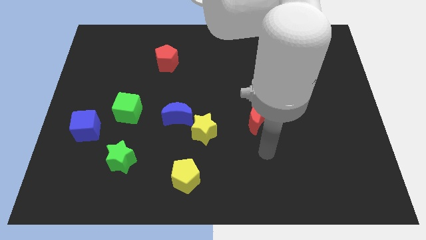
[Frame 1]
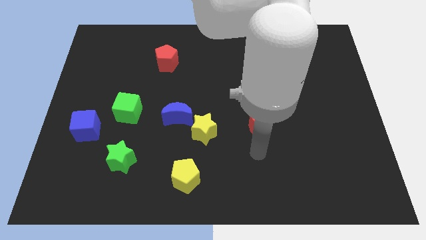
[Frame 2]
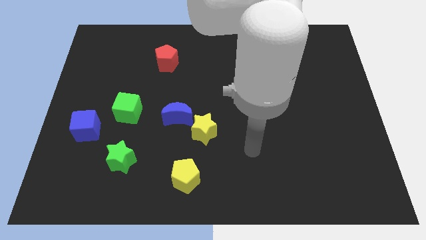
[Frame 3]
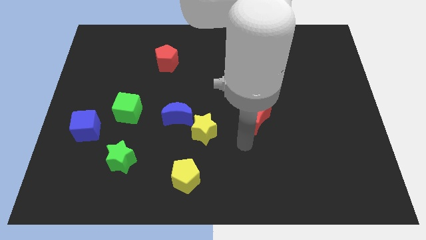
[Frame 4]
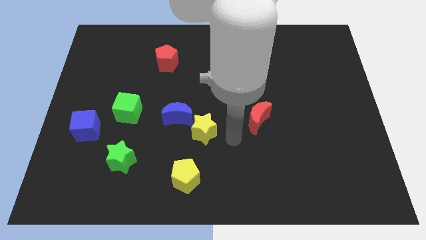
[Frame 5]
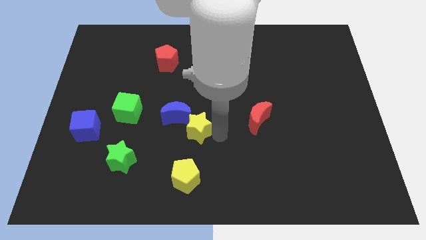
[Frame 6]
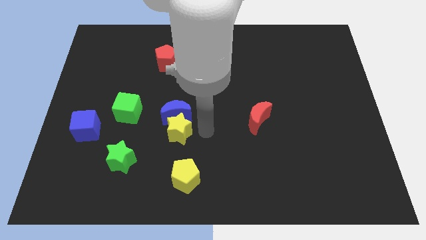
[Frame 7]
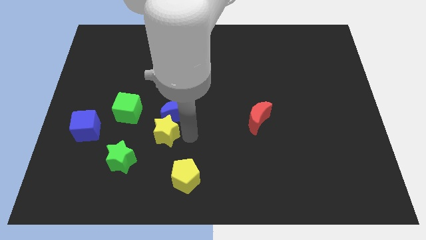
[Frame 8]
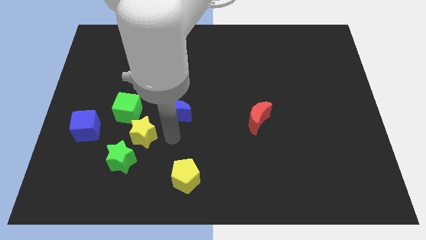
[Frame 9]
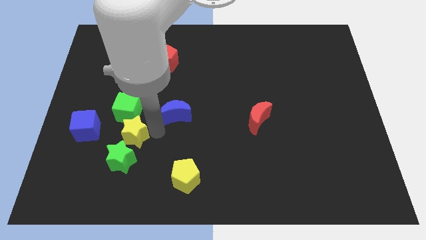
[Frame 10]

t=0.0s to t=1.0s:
move the blue moon away from the yellow star

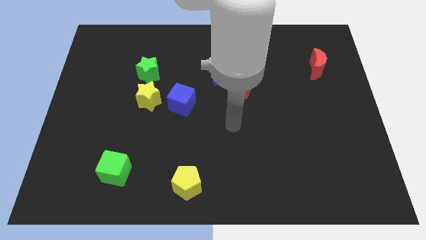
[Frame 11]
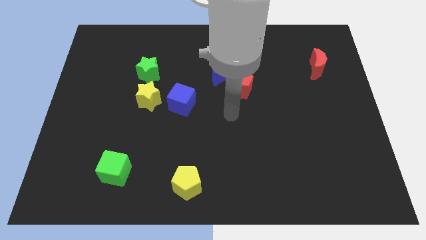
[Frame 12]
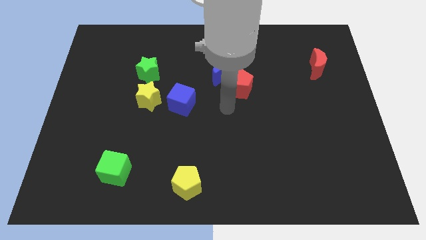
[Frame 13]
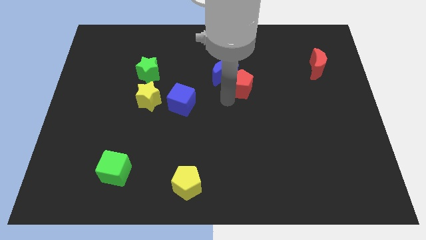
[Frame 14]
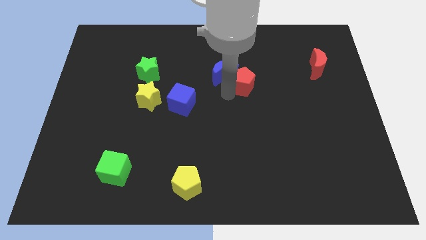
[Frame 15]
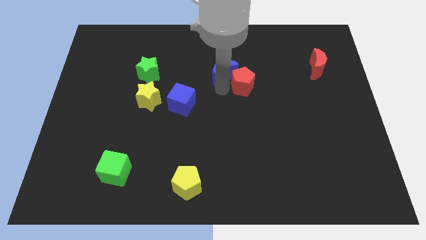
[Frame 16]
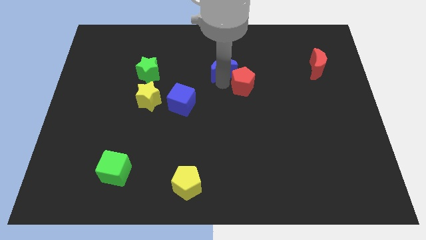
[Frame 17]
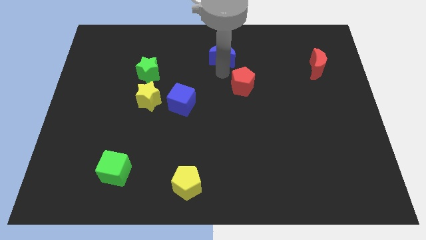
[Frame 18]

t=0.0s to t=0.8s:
move the red pentagon away from the blue moon

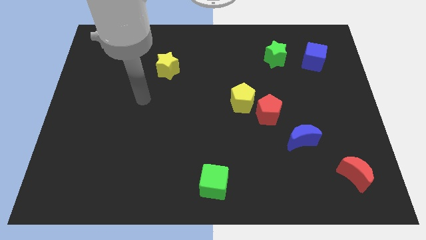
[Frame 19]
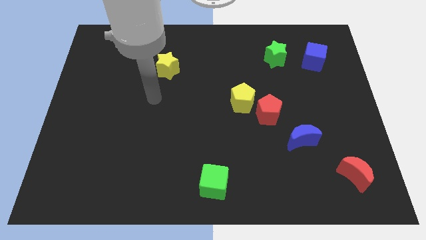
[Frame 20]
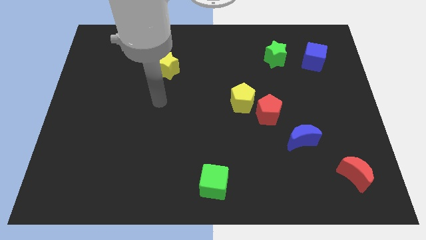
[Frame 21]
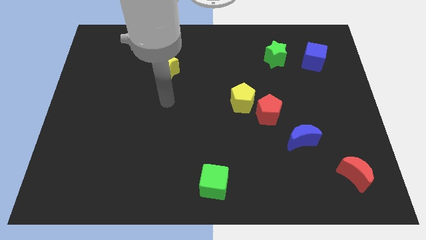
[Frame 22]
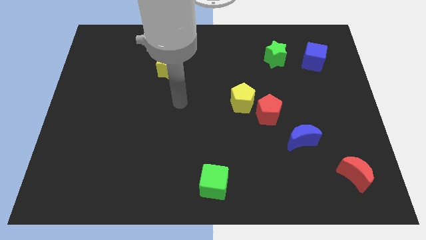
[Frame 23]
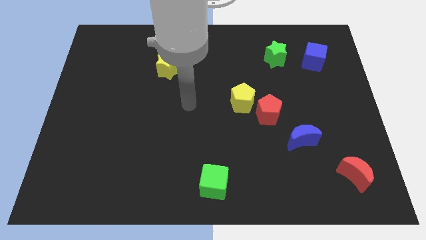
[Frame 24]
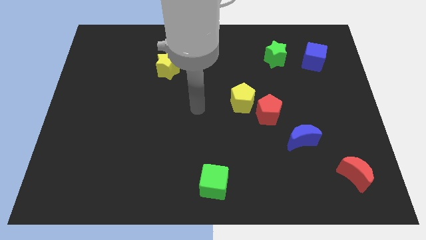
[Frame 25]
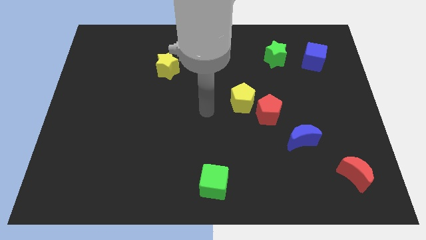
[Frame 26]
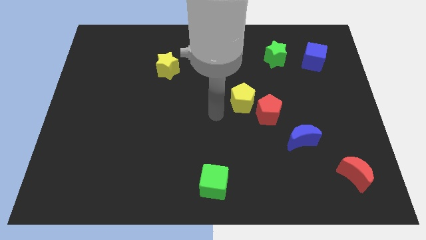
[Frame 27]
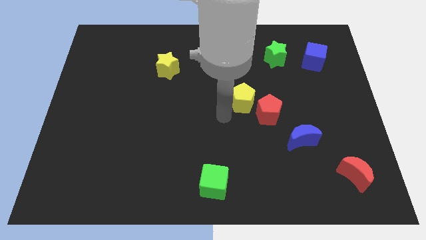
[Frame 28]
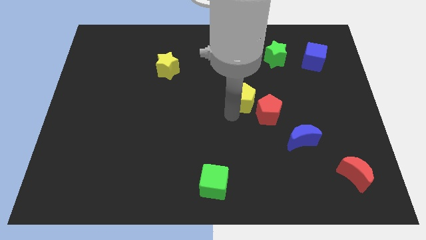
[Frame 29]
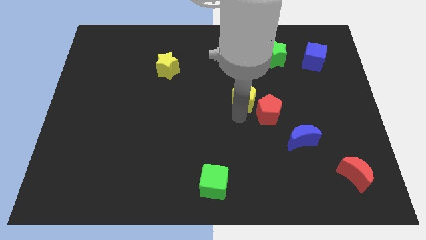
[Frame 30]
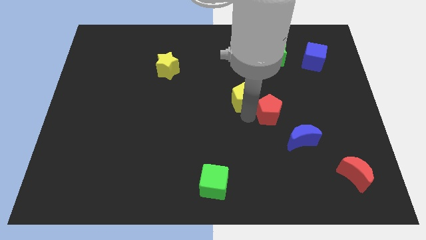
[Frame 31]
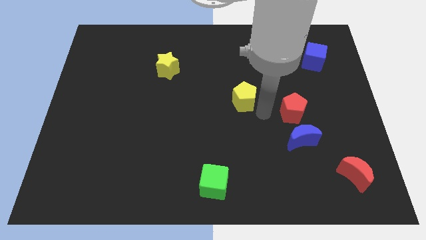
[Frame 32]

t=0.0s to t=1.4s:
separate the yellow pentagon from the red pentagon

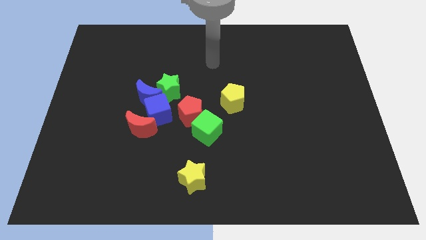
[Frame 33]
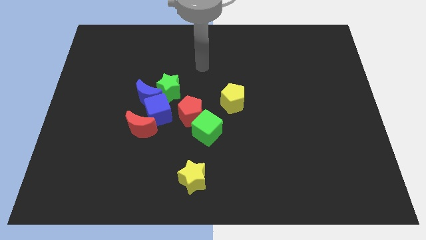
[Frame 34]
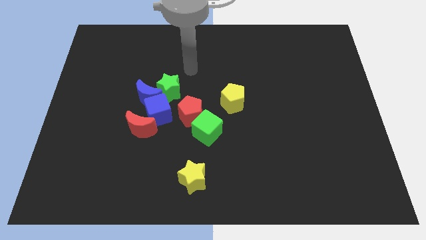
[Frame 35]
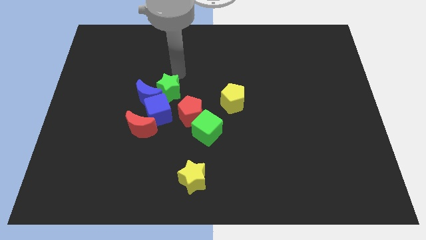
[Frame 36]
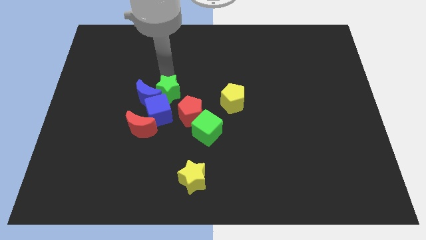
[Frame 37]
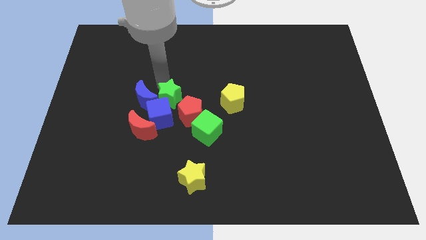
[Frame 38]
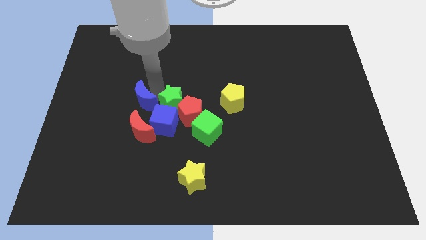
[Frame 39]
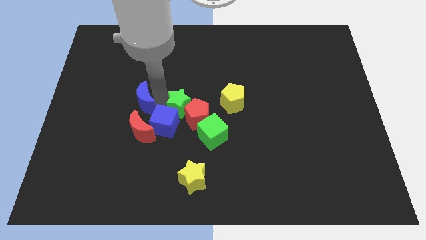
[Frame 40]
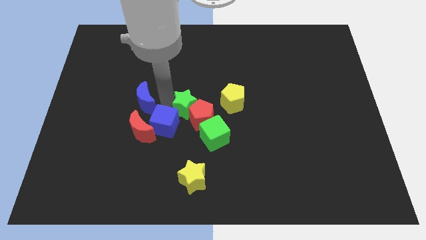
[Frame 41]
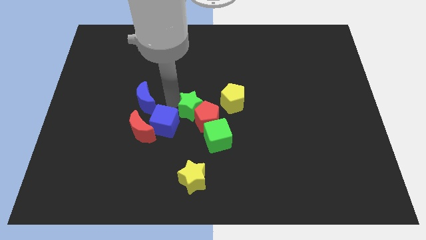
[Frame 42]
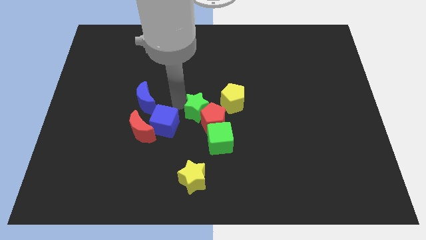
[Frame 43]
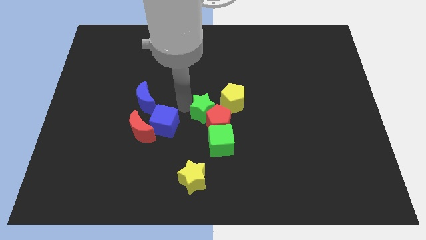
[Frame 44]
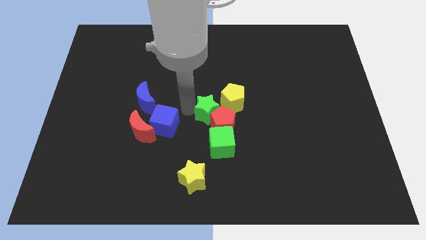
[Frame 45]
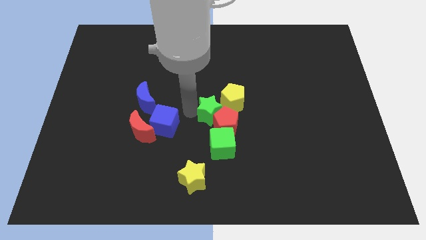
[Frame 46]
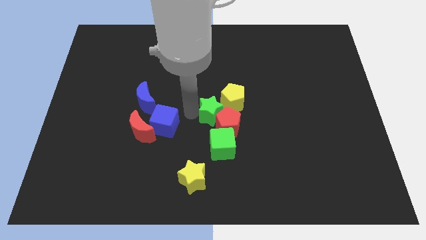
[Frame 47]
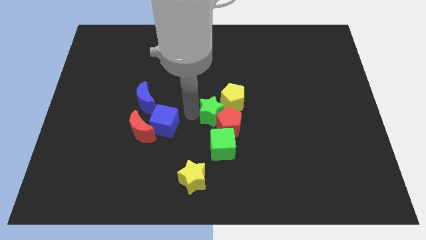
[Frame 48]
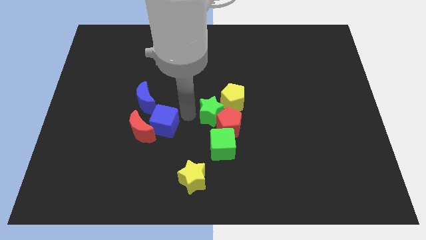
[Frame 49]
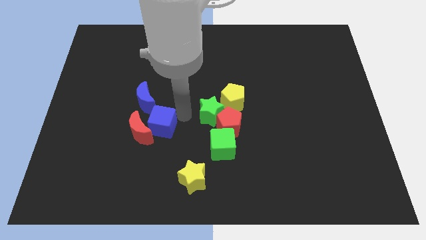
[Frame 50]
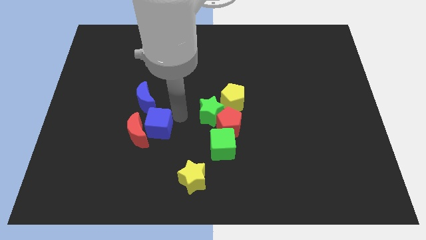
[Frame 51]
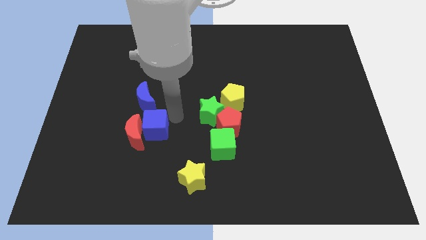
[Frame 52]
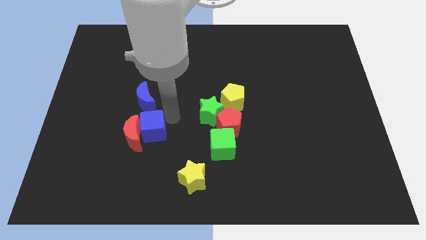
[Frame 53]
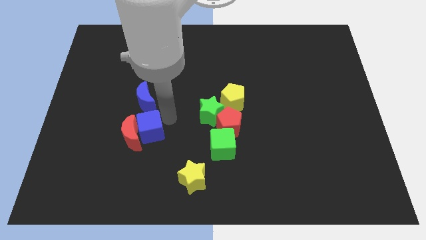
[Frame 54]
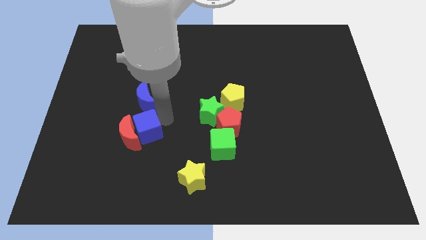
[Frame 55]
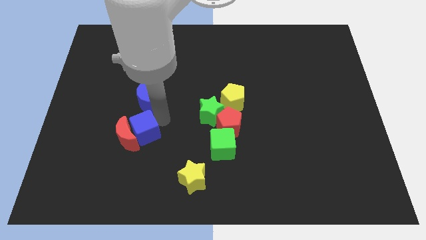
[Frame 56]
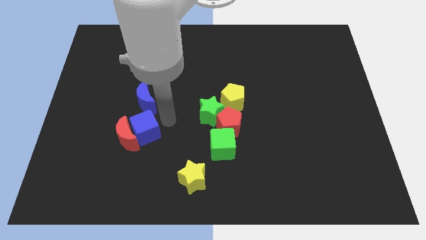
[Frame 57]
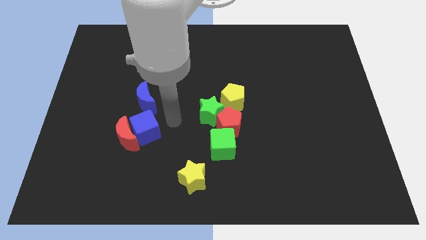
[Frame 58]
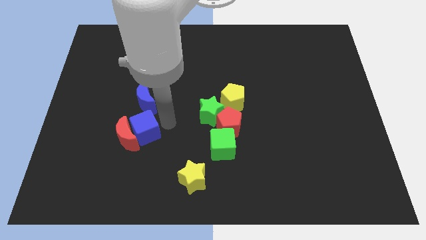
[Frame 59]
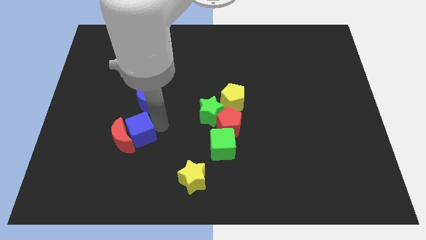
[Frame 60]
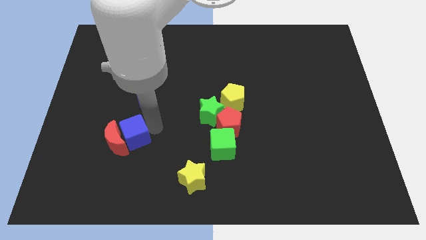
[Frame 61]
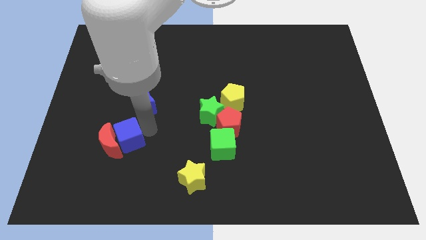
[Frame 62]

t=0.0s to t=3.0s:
pull the blue cube apart from the clump

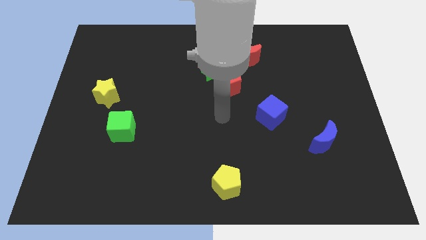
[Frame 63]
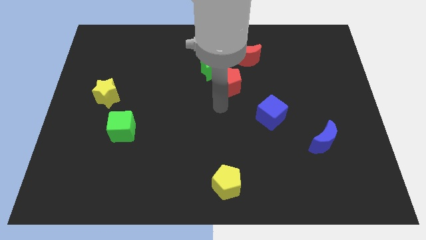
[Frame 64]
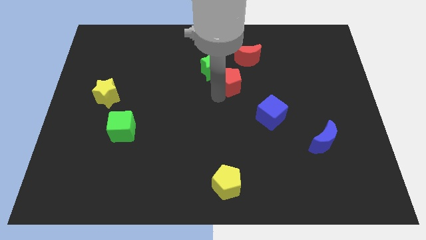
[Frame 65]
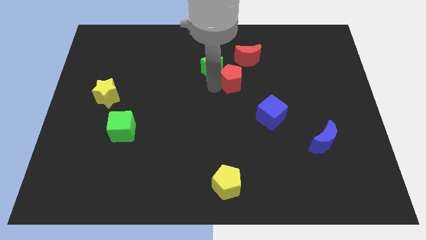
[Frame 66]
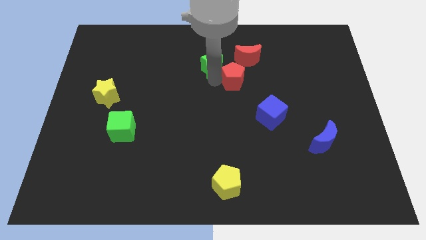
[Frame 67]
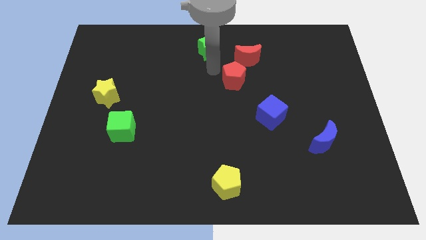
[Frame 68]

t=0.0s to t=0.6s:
separate the red pentagon from the green star

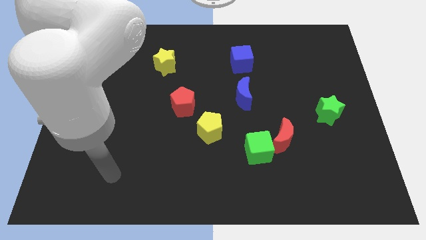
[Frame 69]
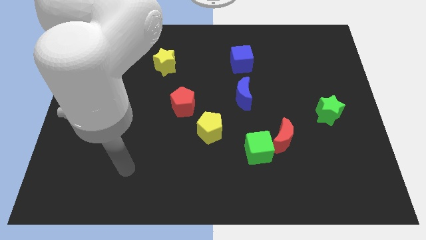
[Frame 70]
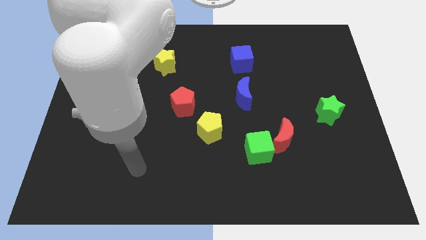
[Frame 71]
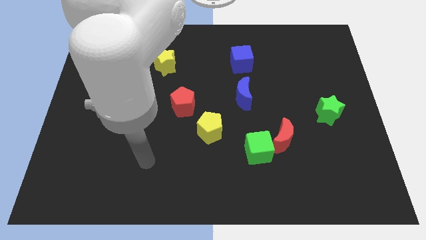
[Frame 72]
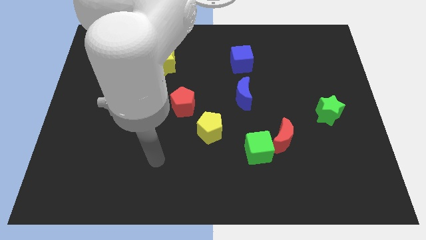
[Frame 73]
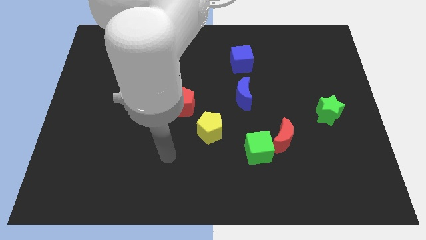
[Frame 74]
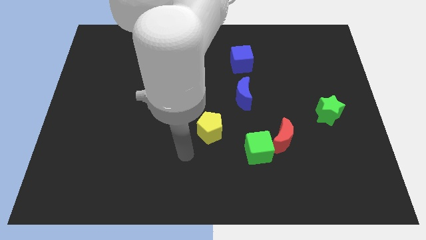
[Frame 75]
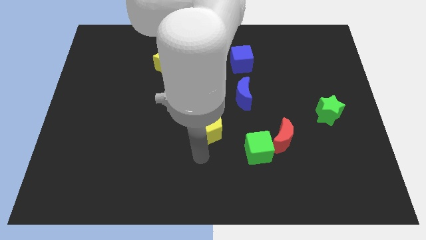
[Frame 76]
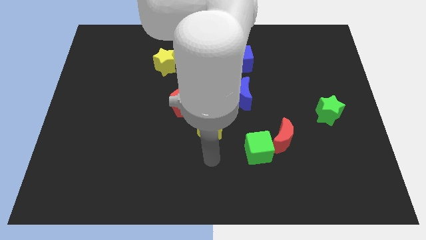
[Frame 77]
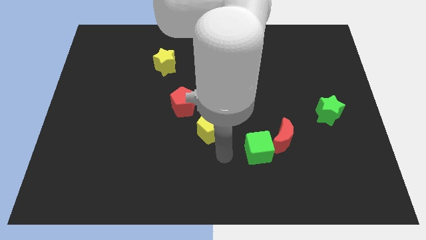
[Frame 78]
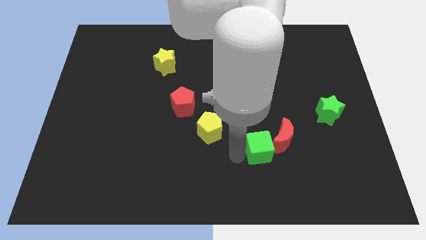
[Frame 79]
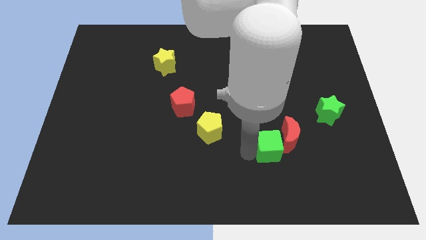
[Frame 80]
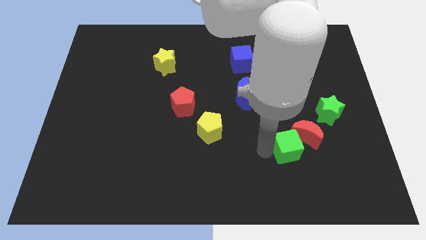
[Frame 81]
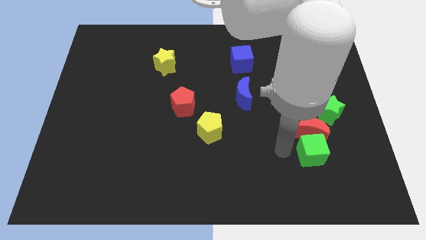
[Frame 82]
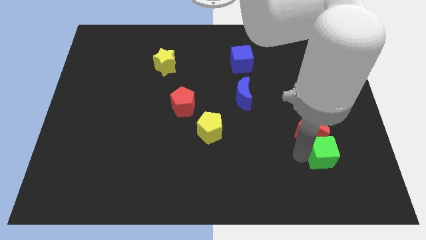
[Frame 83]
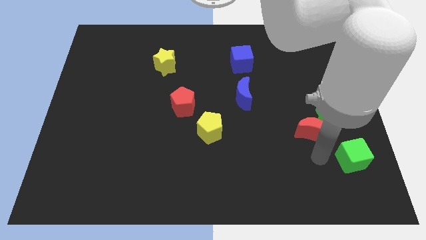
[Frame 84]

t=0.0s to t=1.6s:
separate the red moon from the green cube

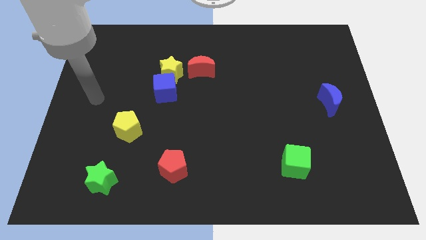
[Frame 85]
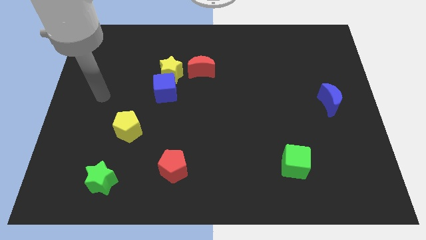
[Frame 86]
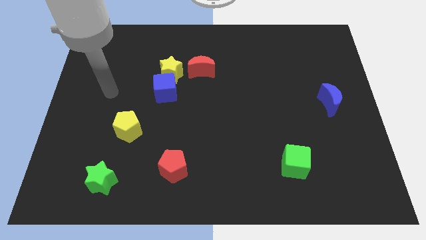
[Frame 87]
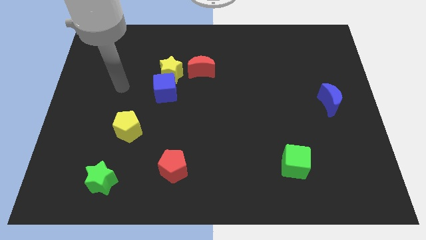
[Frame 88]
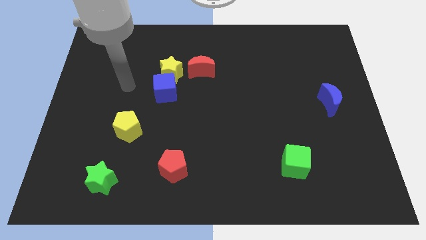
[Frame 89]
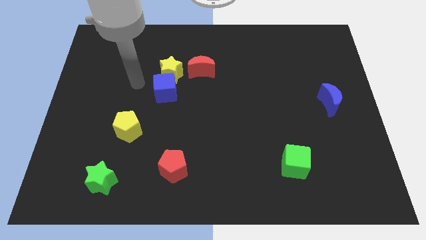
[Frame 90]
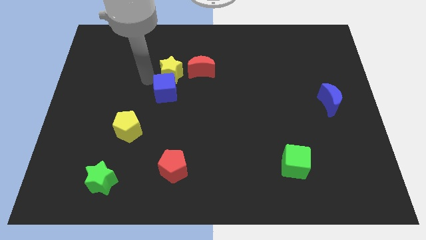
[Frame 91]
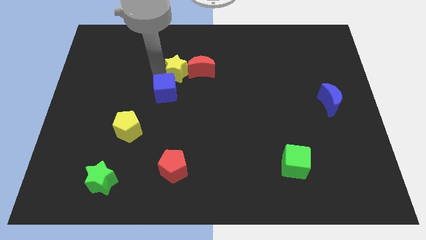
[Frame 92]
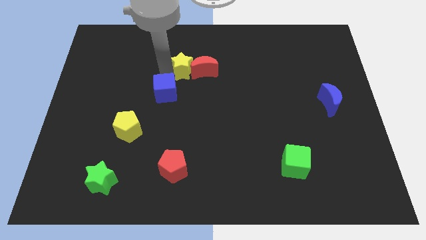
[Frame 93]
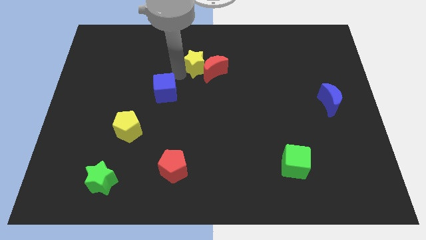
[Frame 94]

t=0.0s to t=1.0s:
move the blue cube away from the yellow star
